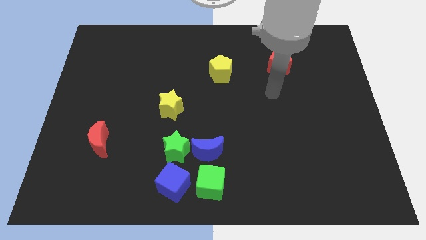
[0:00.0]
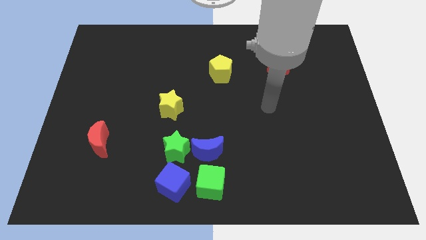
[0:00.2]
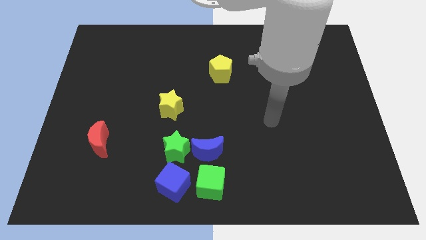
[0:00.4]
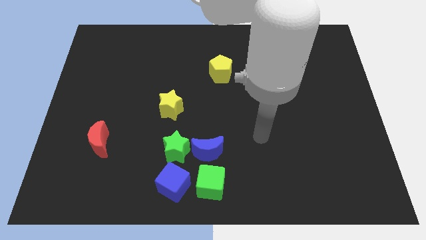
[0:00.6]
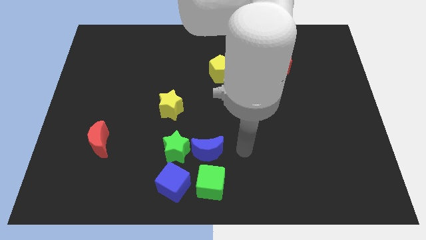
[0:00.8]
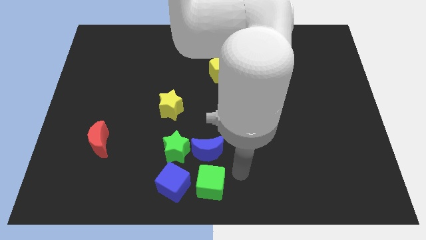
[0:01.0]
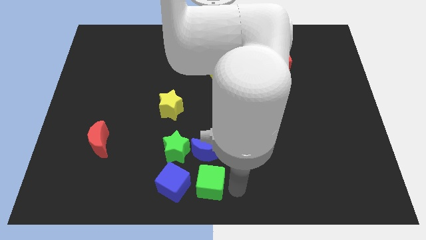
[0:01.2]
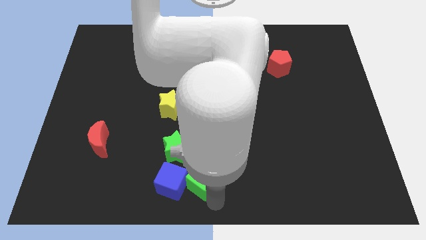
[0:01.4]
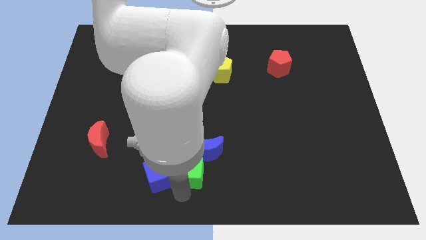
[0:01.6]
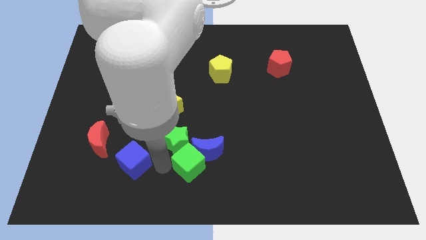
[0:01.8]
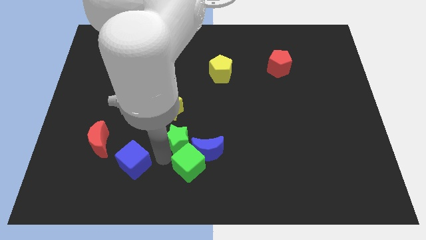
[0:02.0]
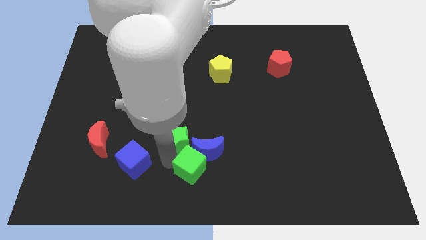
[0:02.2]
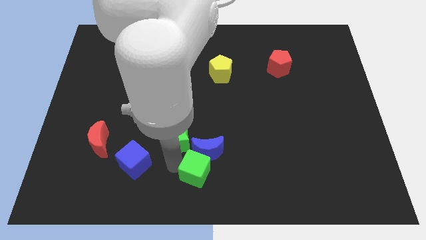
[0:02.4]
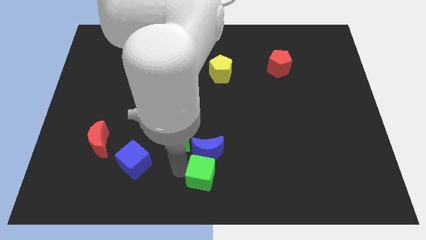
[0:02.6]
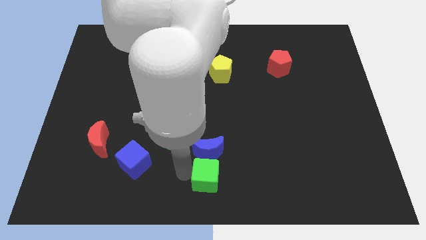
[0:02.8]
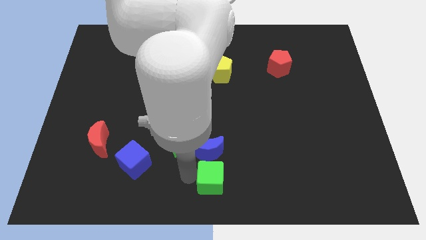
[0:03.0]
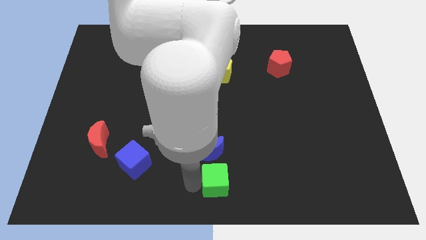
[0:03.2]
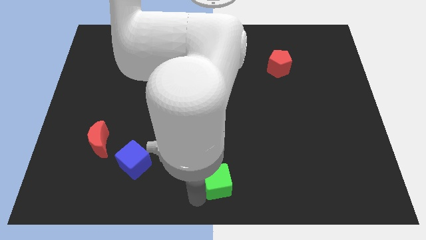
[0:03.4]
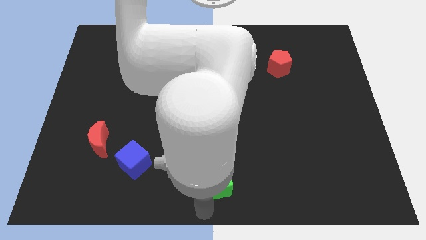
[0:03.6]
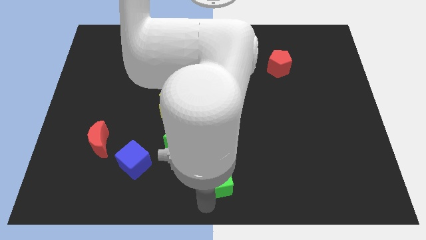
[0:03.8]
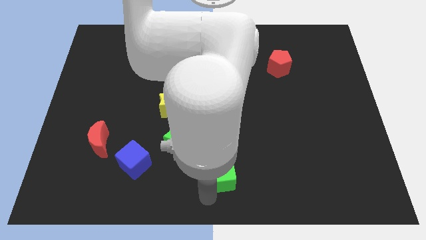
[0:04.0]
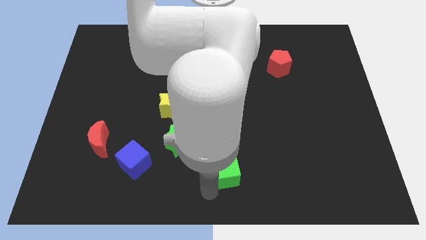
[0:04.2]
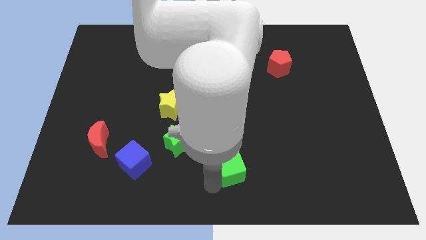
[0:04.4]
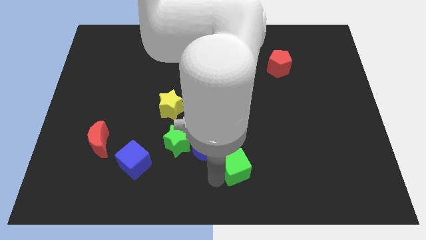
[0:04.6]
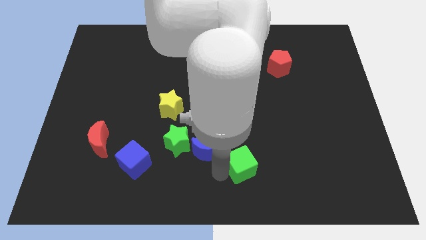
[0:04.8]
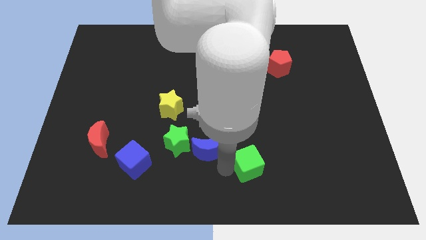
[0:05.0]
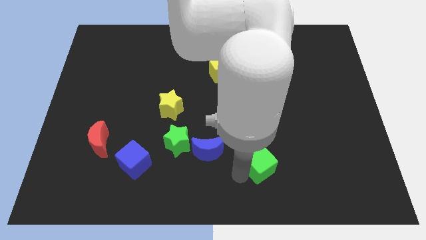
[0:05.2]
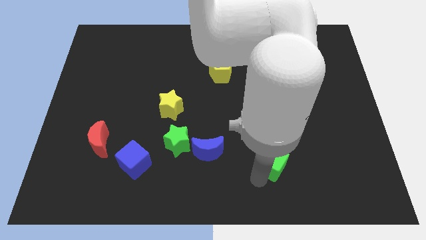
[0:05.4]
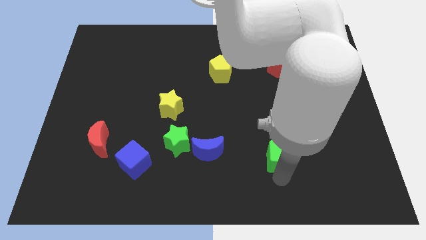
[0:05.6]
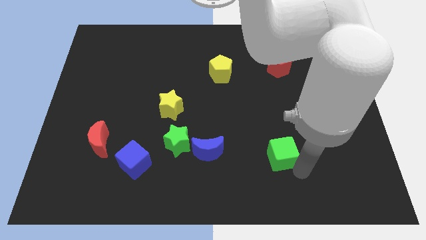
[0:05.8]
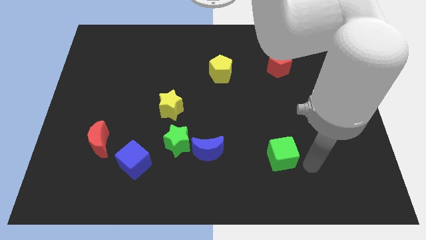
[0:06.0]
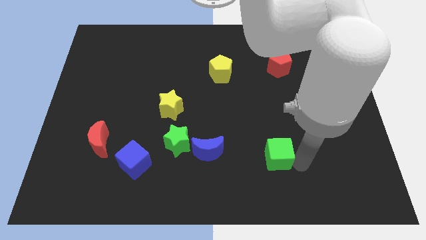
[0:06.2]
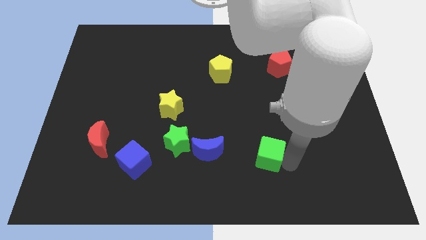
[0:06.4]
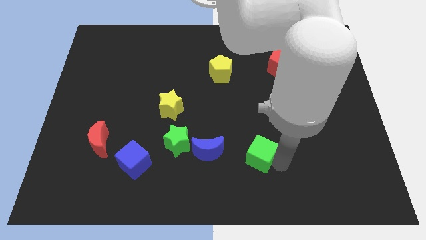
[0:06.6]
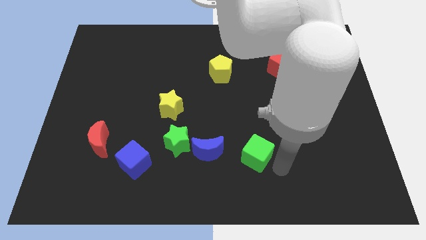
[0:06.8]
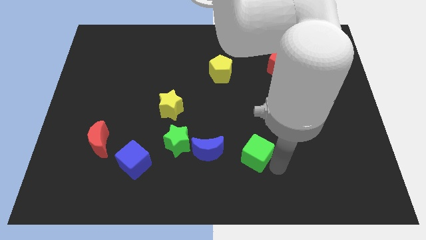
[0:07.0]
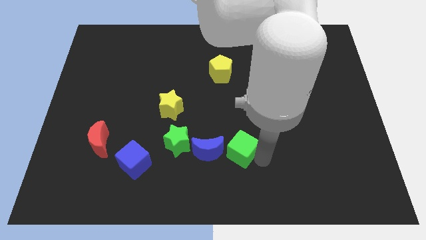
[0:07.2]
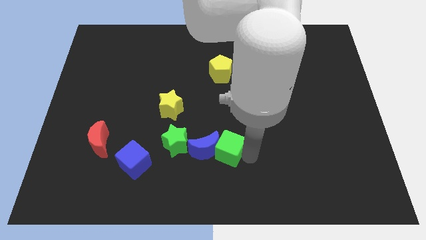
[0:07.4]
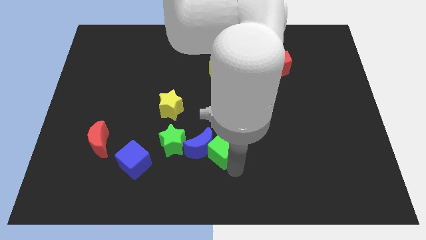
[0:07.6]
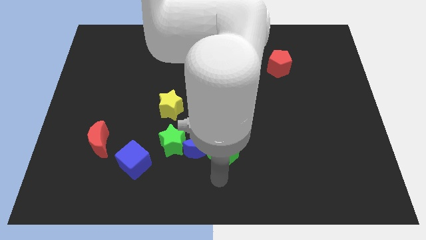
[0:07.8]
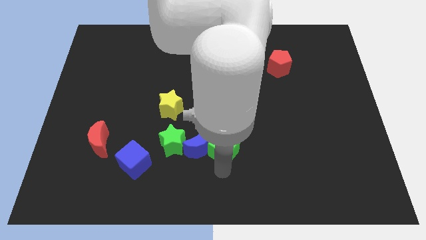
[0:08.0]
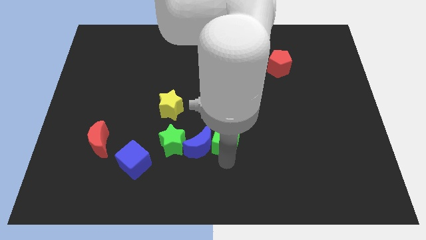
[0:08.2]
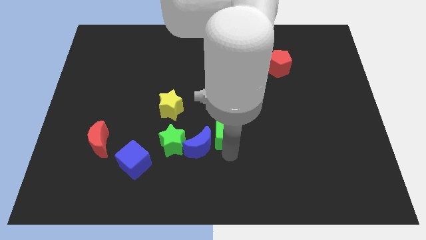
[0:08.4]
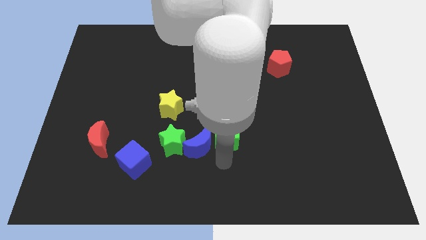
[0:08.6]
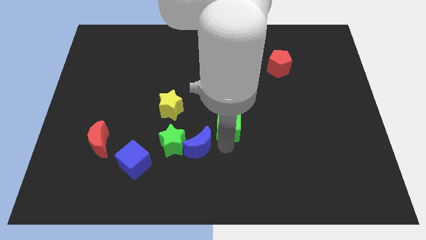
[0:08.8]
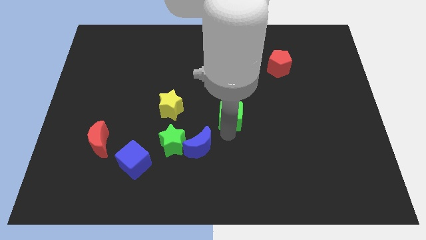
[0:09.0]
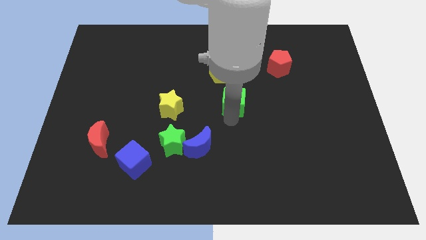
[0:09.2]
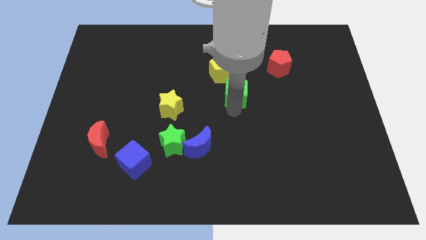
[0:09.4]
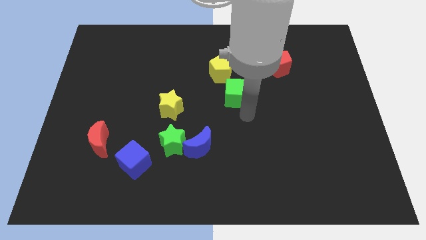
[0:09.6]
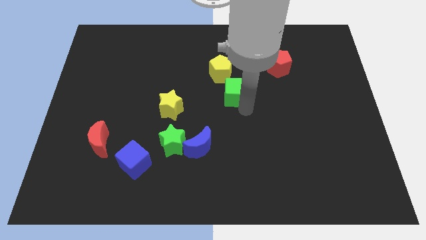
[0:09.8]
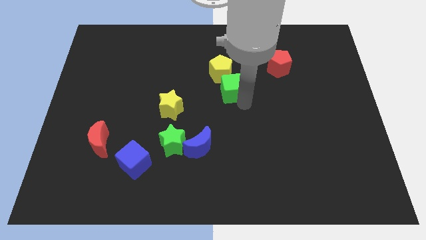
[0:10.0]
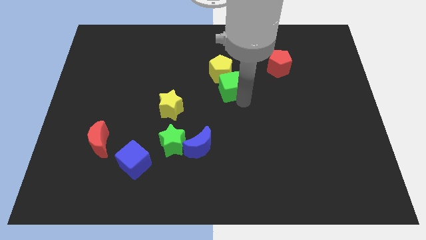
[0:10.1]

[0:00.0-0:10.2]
move the green cube next to the yellow pentagon

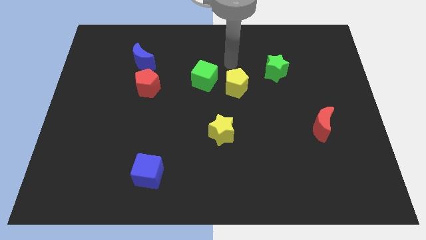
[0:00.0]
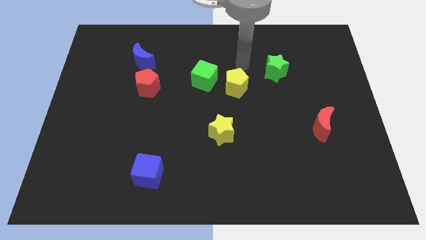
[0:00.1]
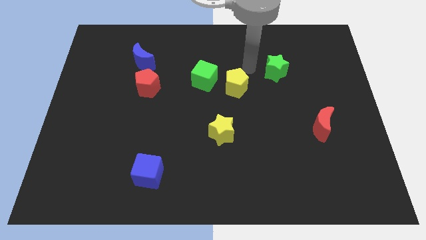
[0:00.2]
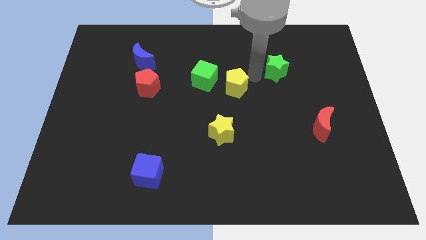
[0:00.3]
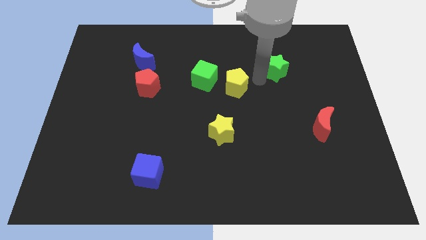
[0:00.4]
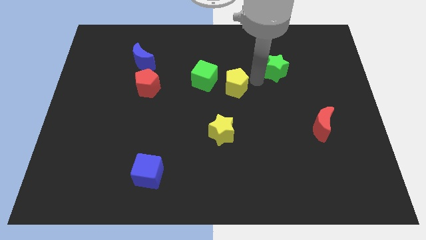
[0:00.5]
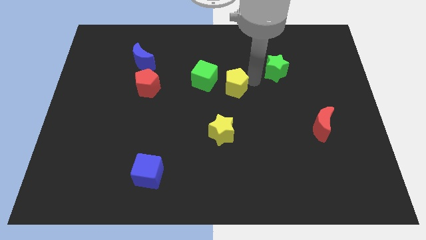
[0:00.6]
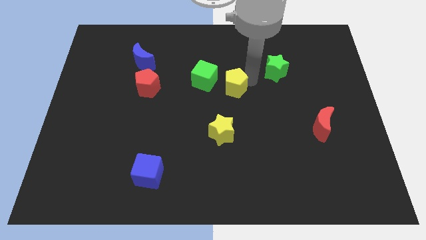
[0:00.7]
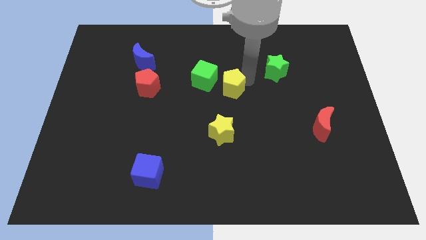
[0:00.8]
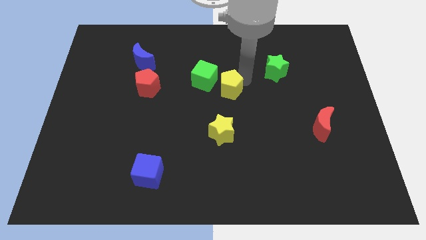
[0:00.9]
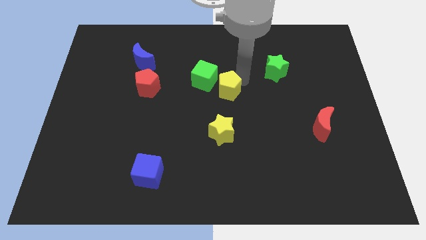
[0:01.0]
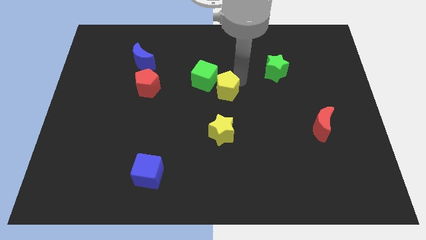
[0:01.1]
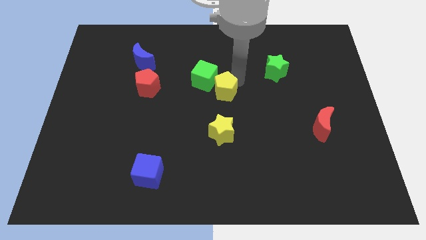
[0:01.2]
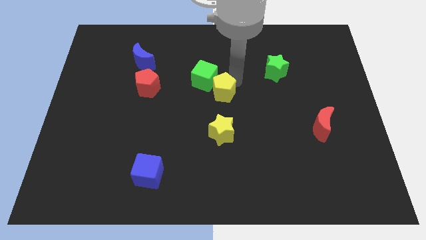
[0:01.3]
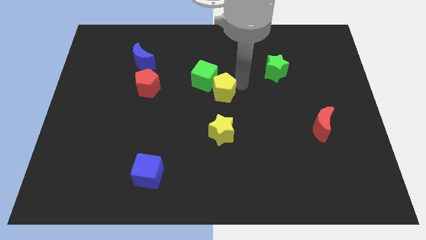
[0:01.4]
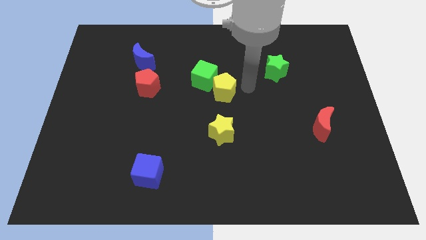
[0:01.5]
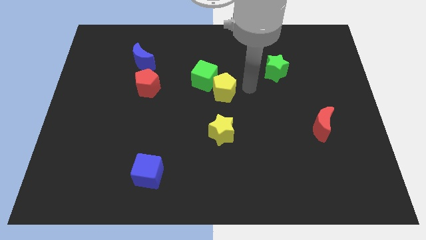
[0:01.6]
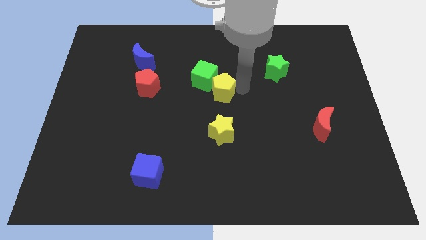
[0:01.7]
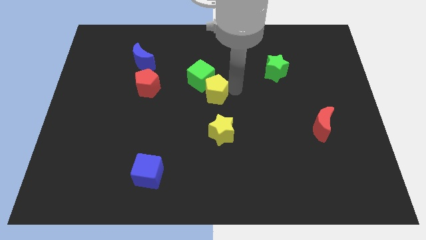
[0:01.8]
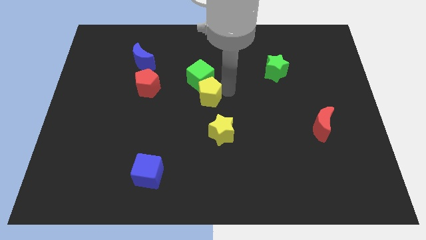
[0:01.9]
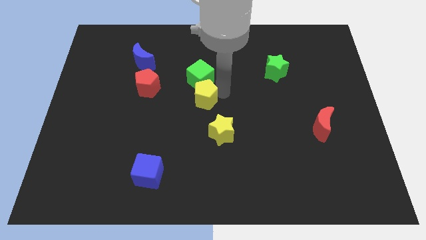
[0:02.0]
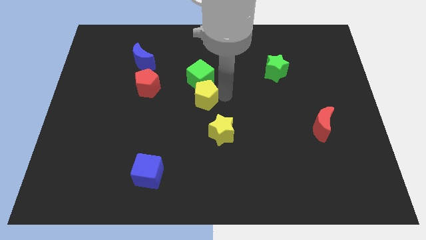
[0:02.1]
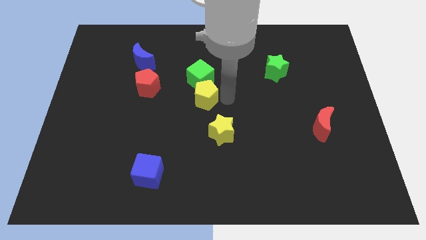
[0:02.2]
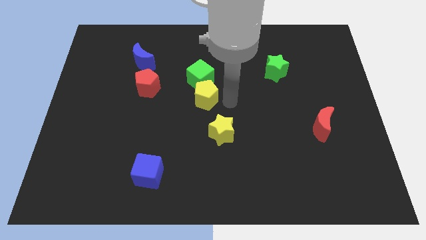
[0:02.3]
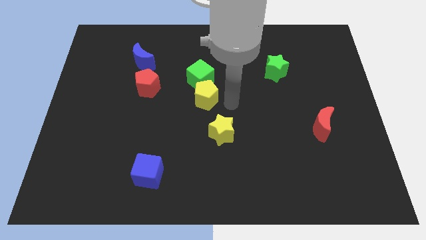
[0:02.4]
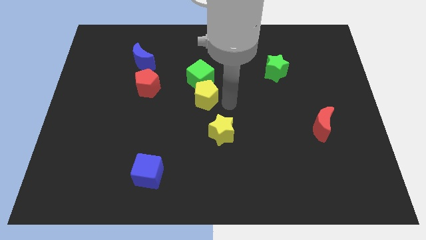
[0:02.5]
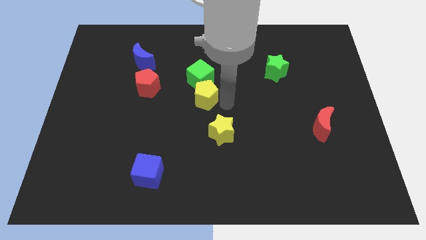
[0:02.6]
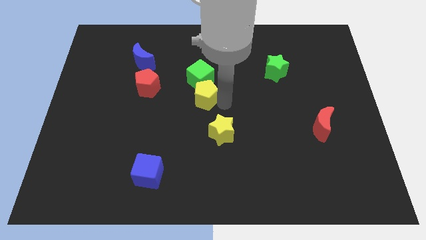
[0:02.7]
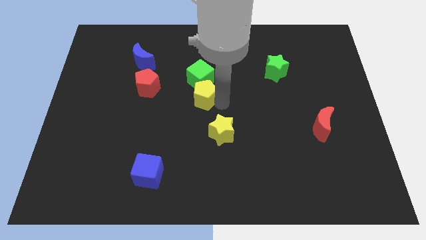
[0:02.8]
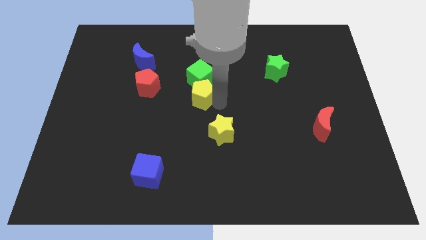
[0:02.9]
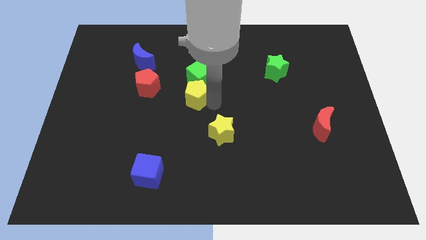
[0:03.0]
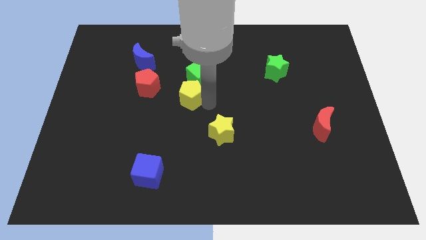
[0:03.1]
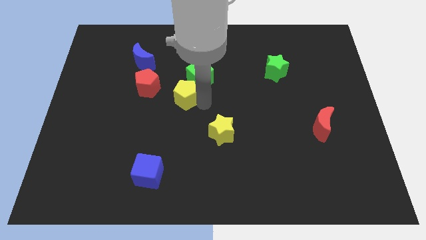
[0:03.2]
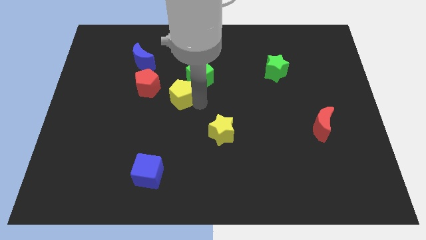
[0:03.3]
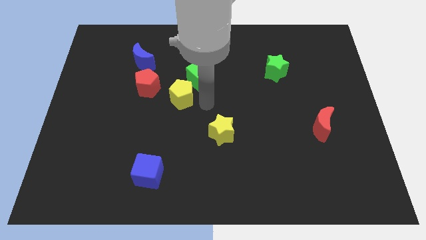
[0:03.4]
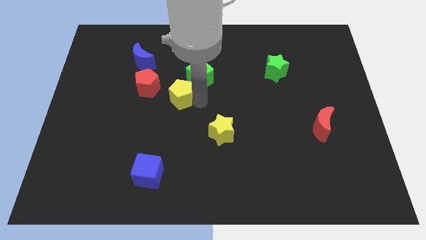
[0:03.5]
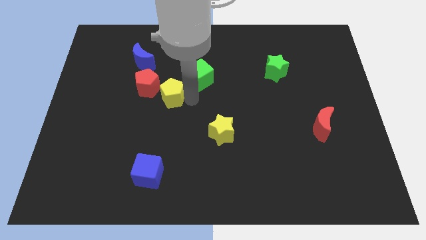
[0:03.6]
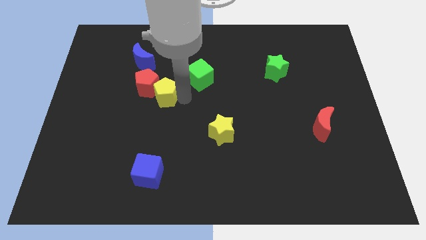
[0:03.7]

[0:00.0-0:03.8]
push the yellow pentagon close to the red pentagon
